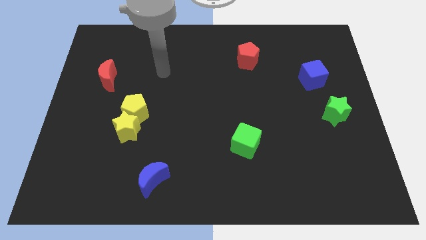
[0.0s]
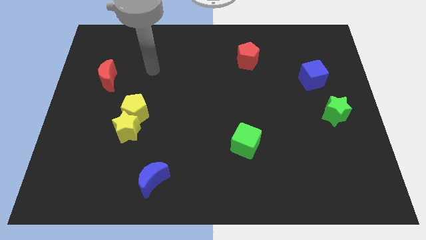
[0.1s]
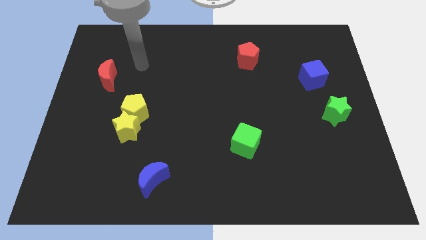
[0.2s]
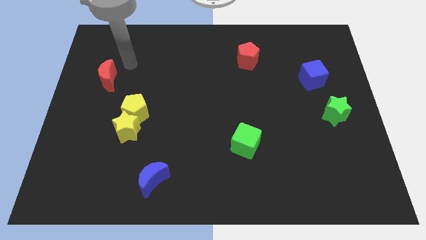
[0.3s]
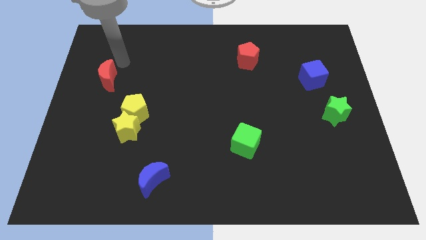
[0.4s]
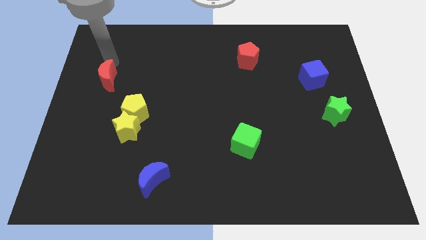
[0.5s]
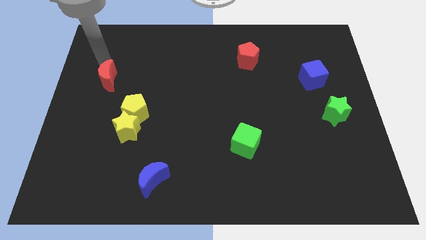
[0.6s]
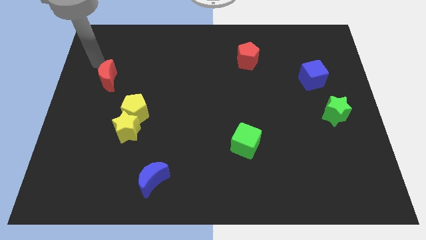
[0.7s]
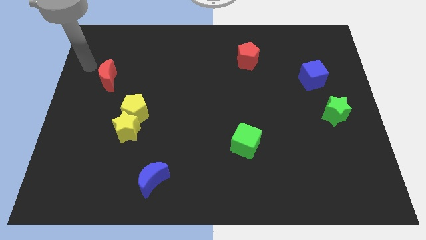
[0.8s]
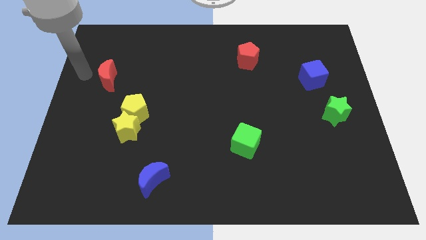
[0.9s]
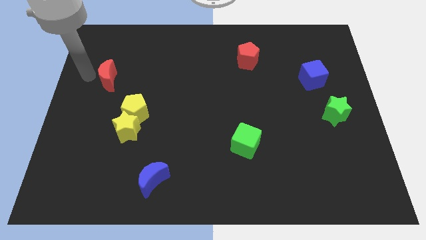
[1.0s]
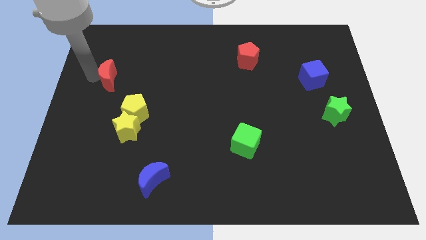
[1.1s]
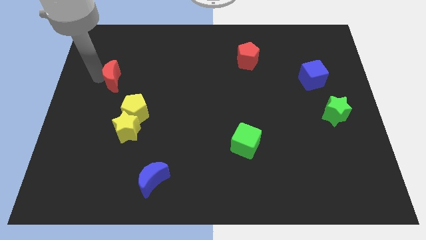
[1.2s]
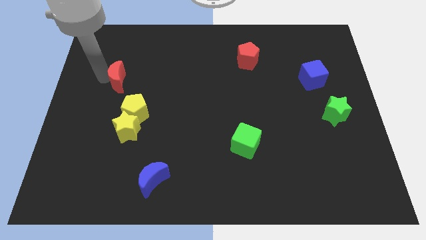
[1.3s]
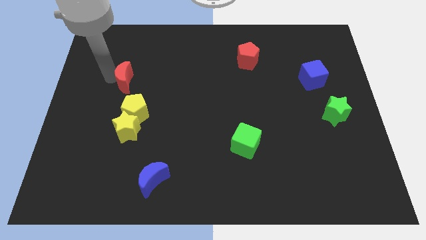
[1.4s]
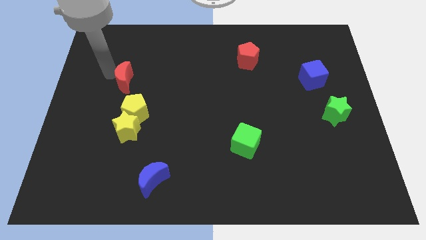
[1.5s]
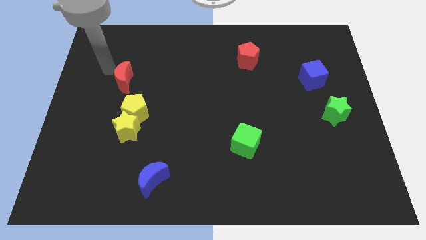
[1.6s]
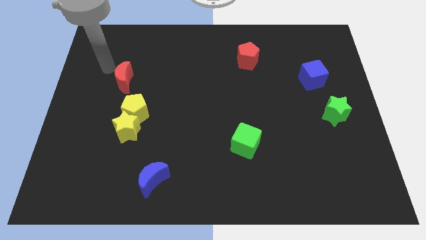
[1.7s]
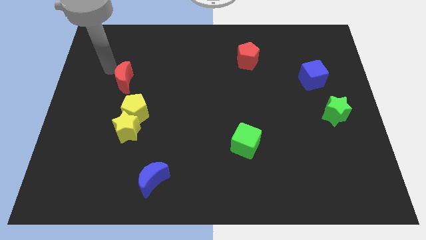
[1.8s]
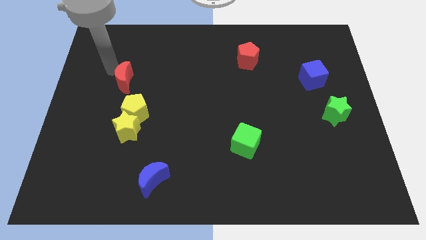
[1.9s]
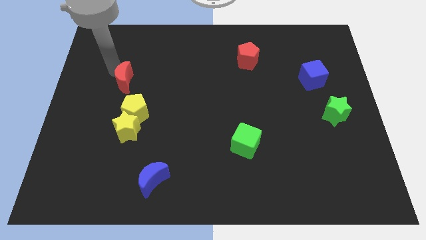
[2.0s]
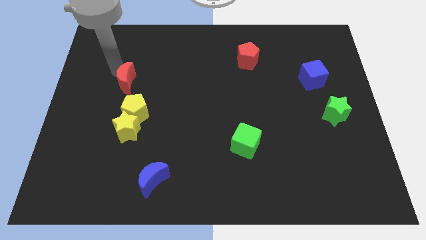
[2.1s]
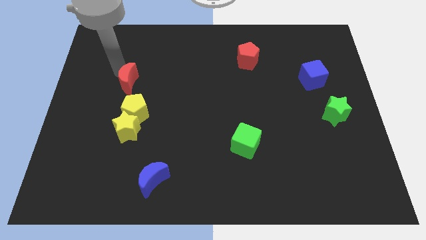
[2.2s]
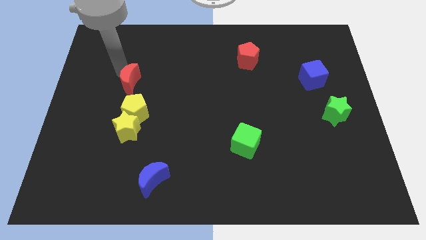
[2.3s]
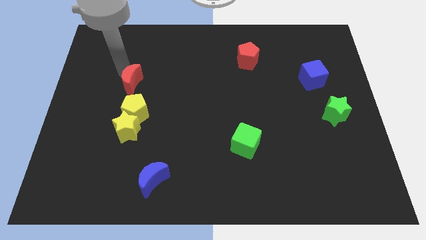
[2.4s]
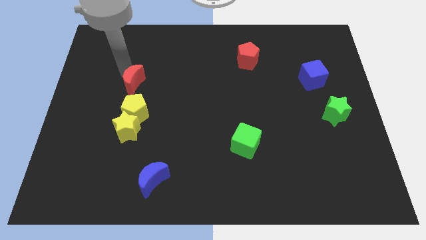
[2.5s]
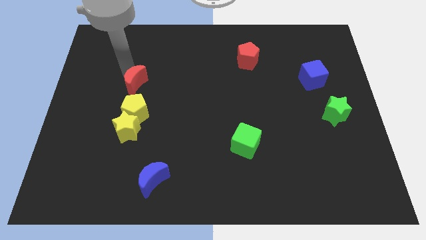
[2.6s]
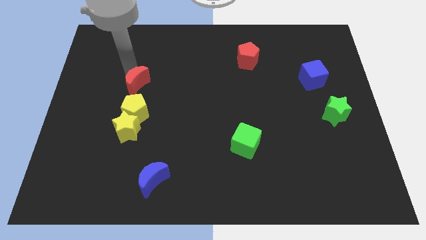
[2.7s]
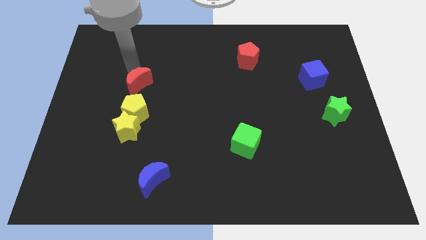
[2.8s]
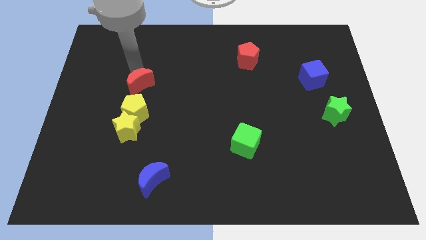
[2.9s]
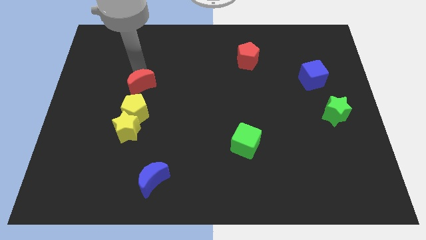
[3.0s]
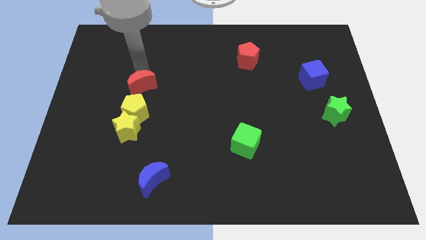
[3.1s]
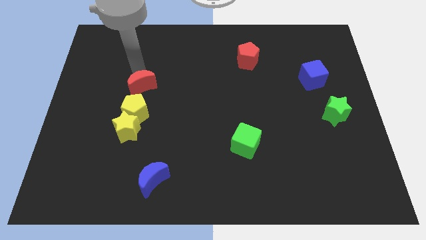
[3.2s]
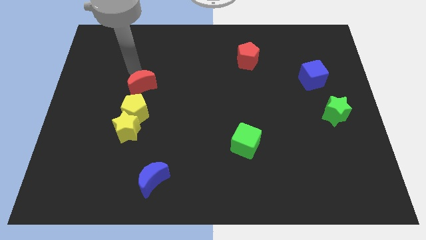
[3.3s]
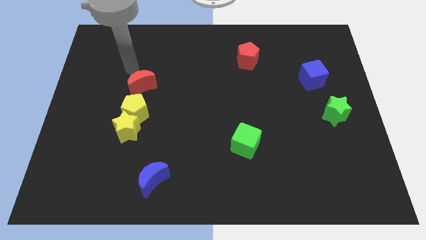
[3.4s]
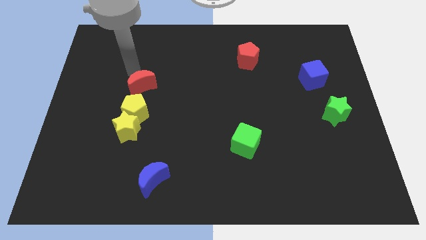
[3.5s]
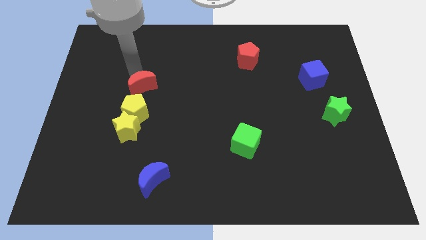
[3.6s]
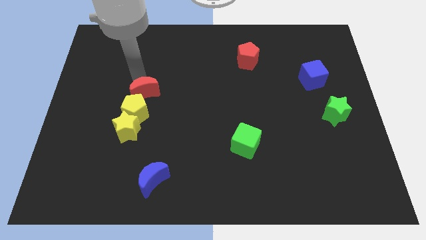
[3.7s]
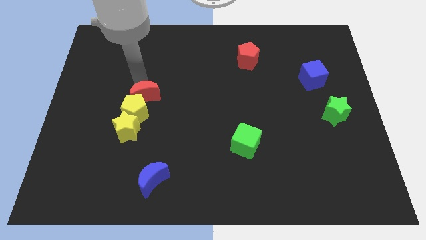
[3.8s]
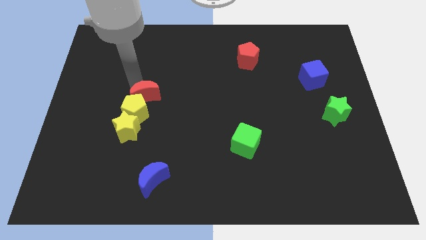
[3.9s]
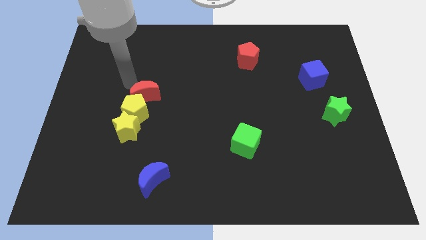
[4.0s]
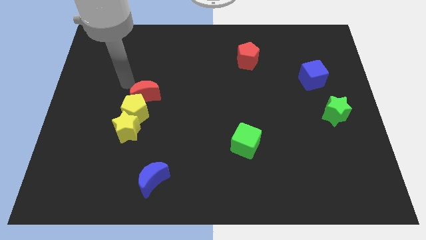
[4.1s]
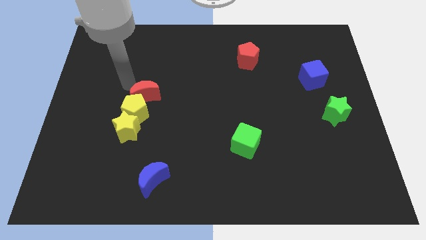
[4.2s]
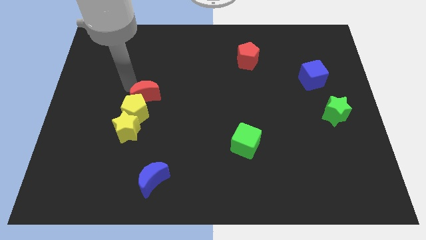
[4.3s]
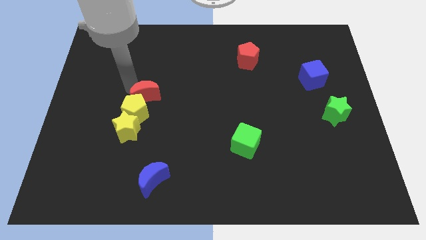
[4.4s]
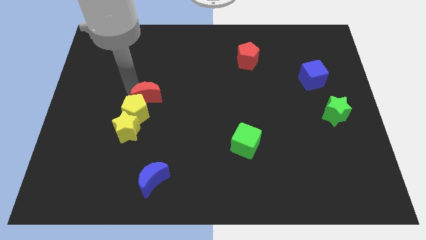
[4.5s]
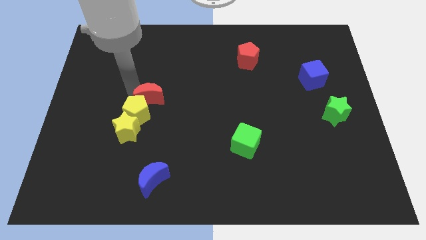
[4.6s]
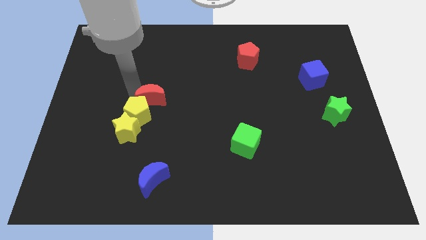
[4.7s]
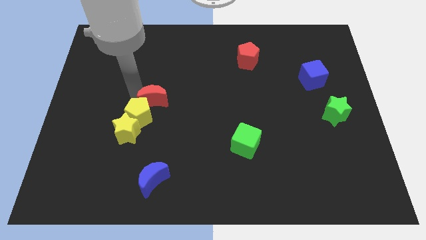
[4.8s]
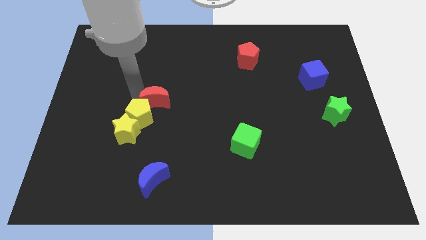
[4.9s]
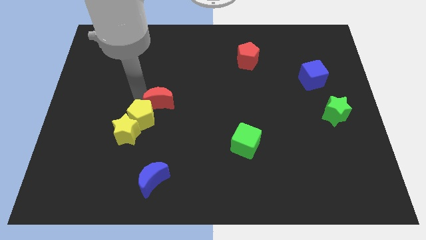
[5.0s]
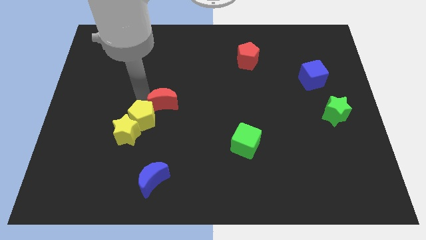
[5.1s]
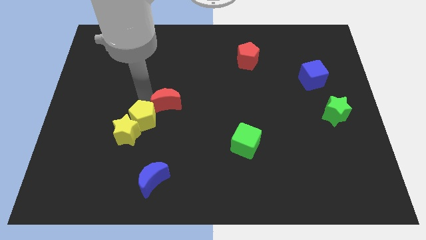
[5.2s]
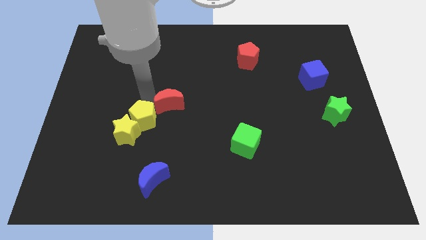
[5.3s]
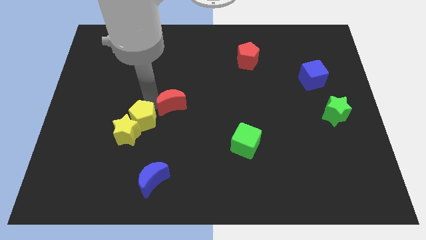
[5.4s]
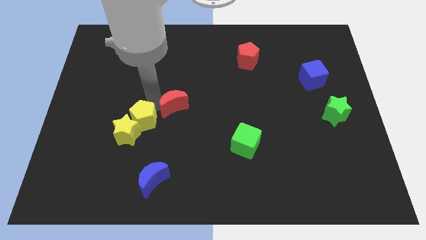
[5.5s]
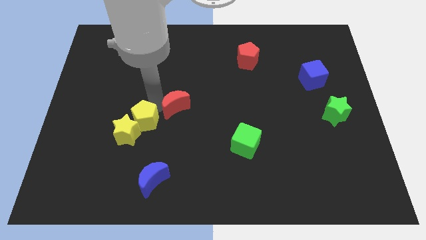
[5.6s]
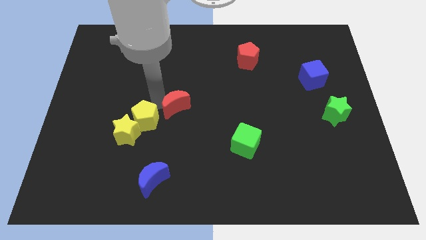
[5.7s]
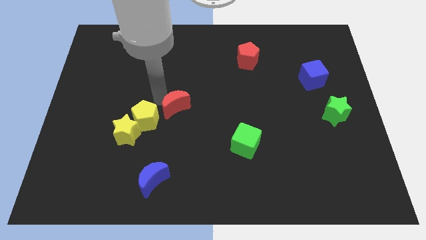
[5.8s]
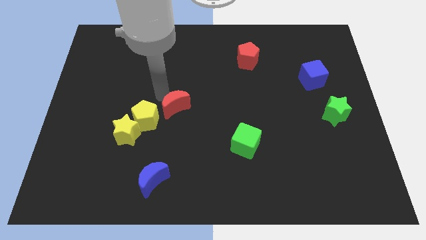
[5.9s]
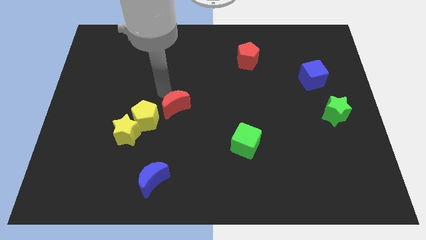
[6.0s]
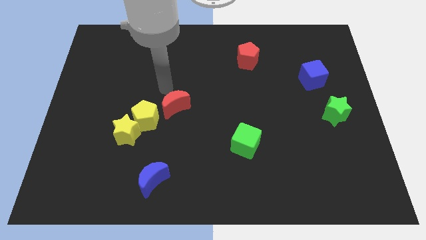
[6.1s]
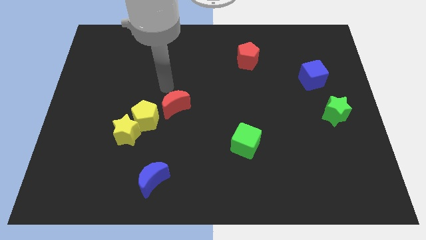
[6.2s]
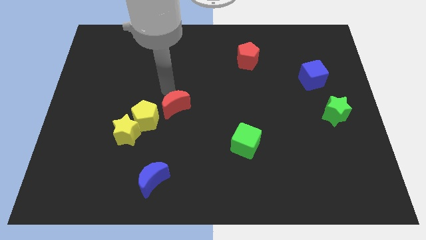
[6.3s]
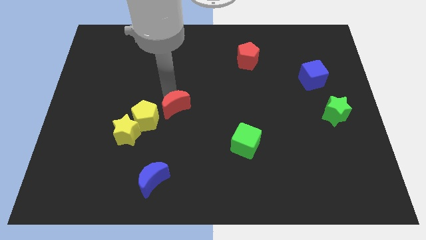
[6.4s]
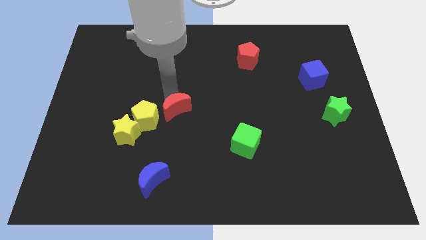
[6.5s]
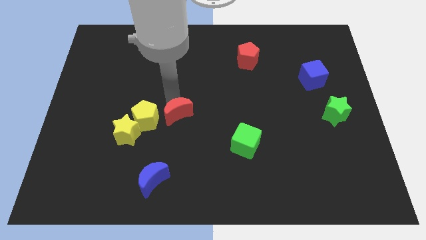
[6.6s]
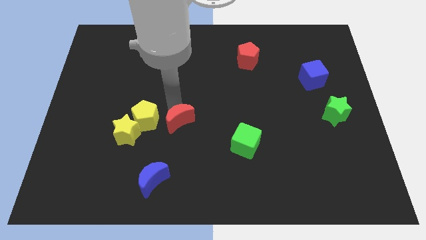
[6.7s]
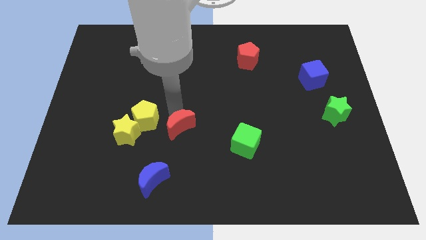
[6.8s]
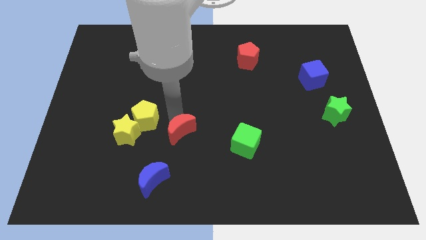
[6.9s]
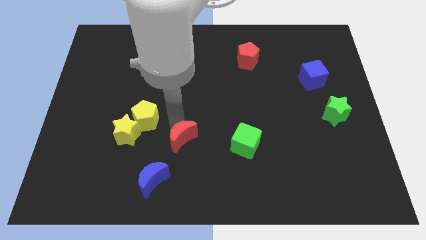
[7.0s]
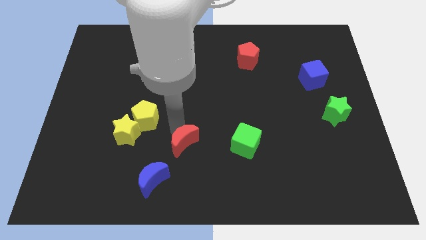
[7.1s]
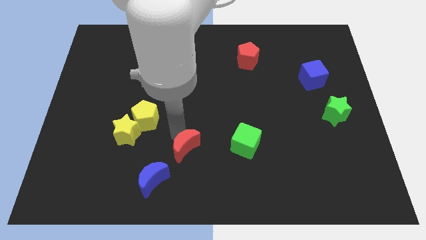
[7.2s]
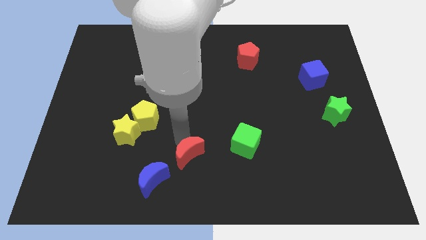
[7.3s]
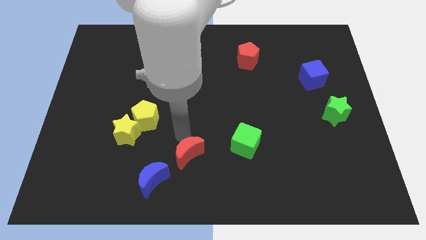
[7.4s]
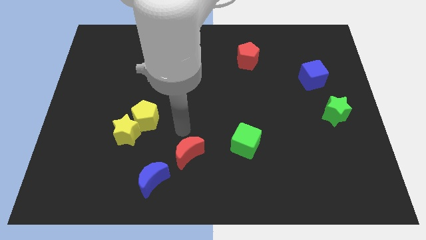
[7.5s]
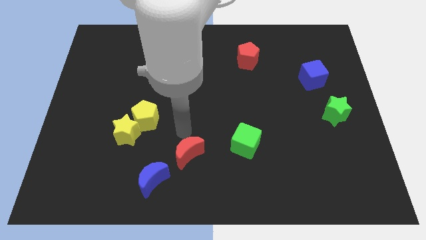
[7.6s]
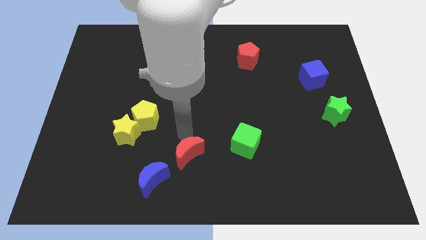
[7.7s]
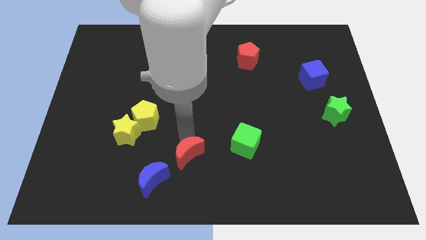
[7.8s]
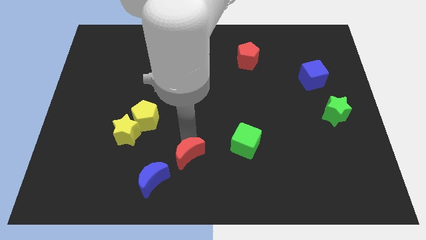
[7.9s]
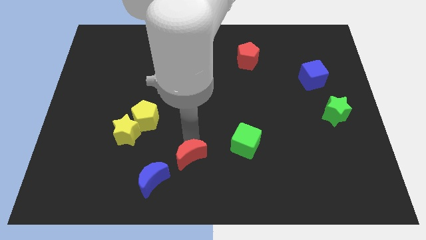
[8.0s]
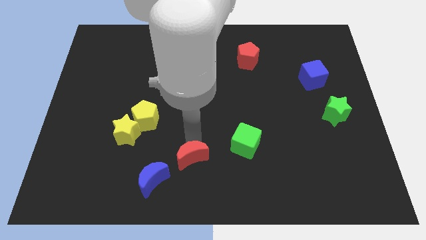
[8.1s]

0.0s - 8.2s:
slide the red moon to the bottom
